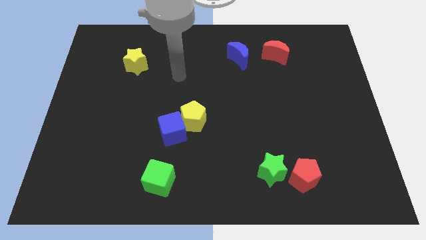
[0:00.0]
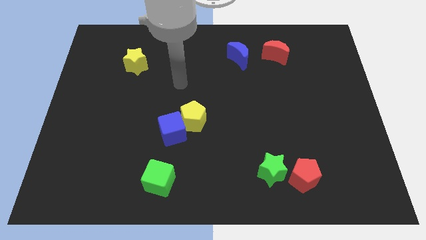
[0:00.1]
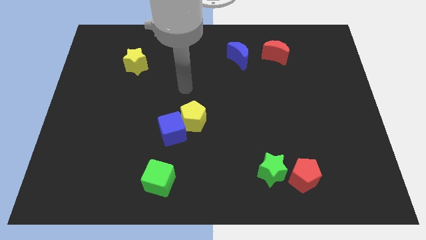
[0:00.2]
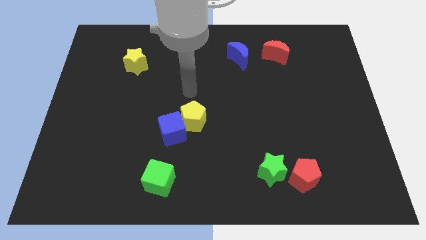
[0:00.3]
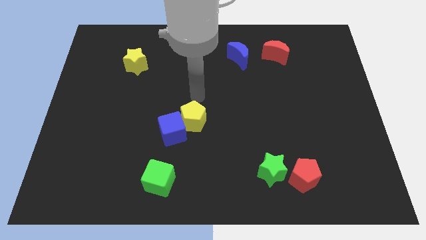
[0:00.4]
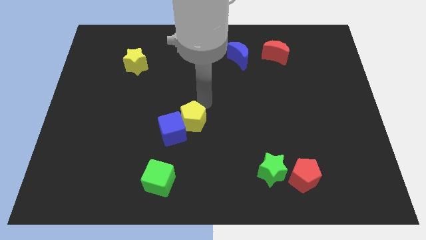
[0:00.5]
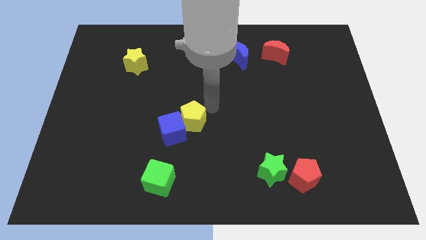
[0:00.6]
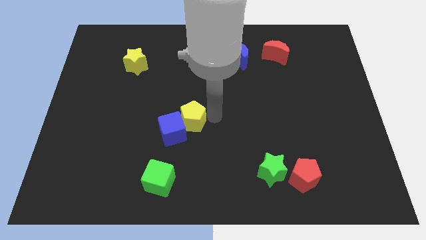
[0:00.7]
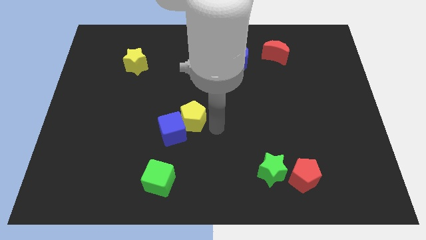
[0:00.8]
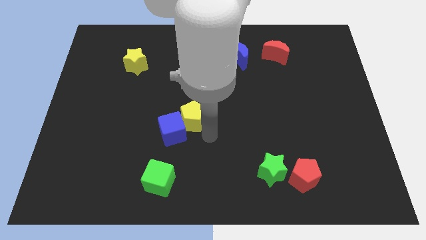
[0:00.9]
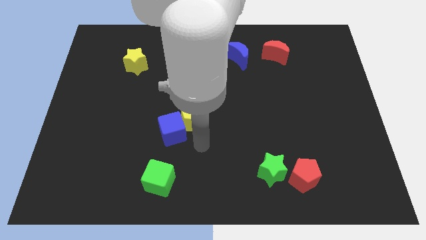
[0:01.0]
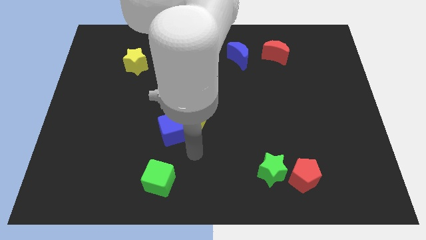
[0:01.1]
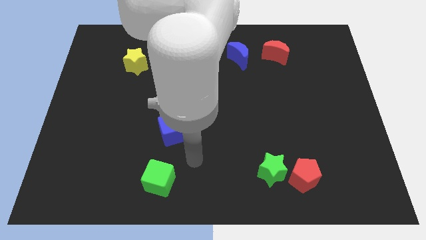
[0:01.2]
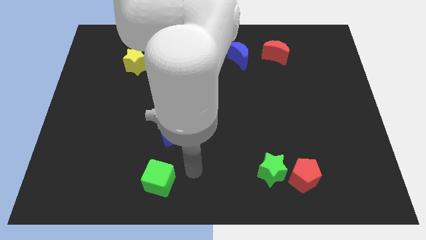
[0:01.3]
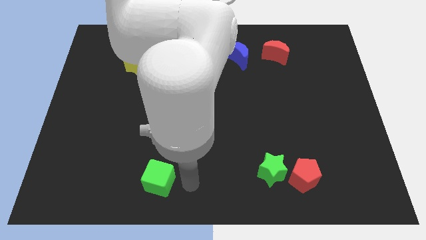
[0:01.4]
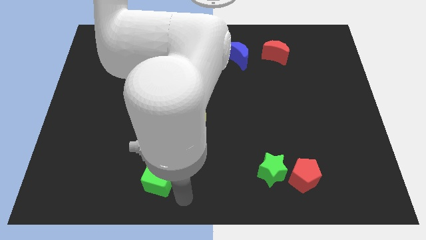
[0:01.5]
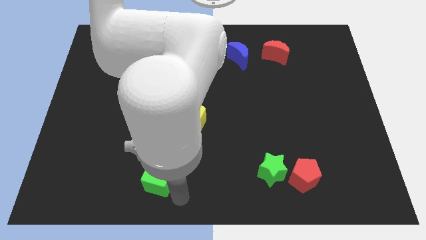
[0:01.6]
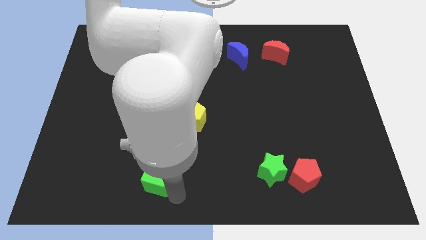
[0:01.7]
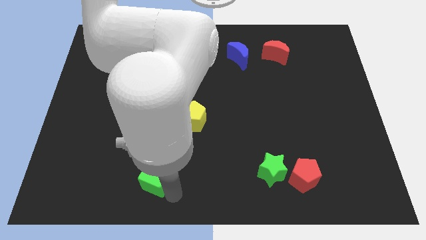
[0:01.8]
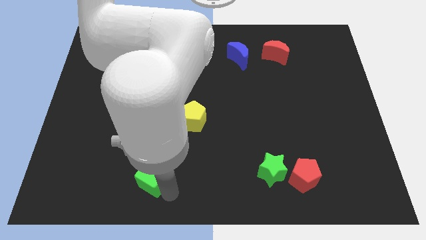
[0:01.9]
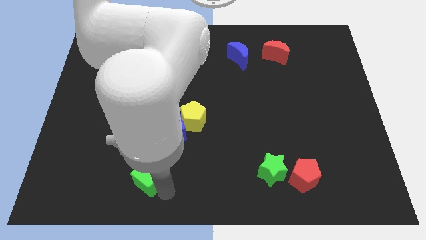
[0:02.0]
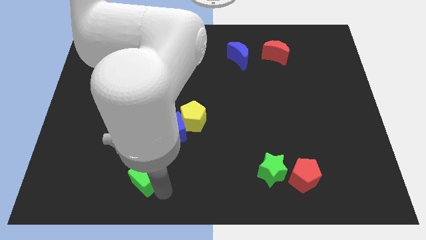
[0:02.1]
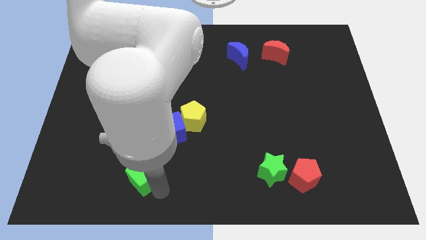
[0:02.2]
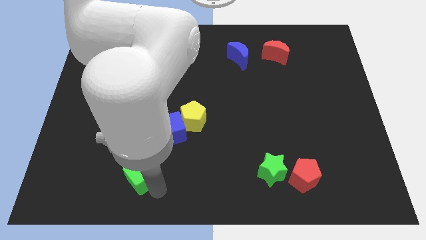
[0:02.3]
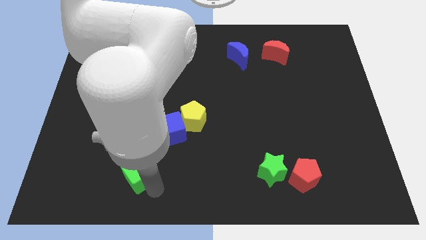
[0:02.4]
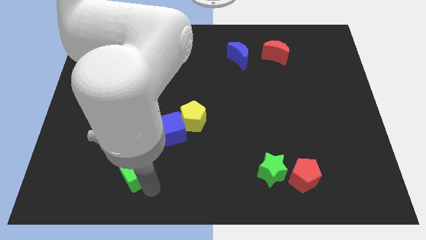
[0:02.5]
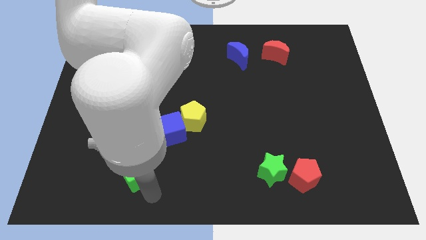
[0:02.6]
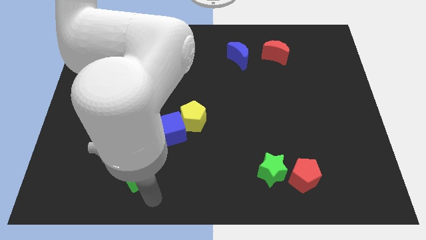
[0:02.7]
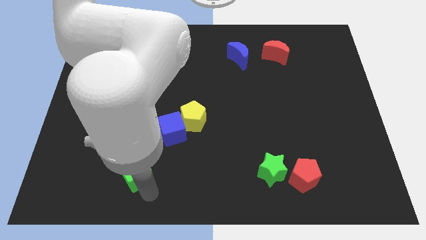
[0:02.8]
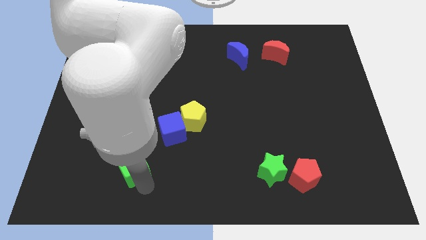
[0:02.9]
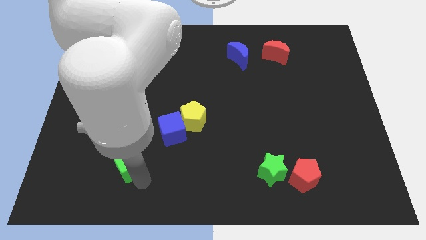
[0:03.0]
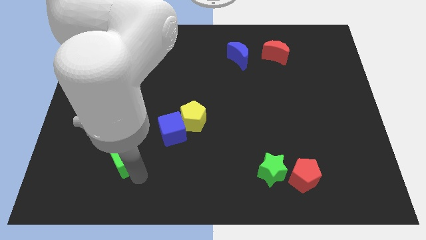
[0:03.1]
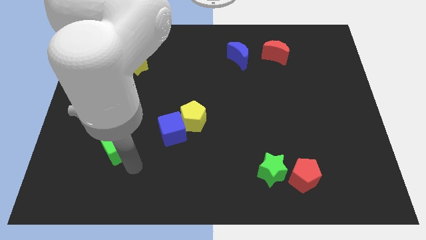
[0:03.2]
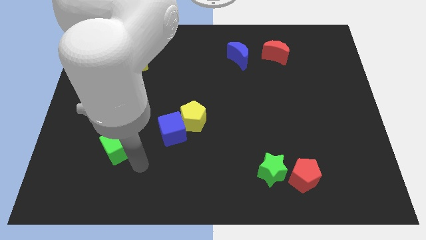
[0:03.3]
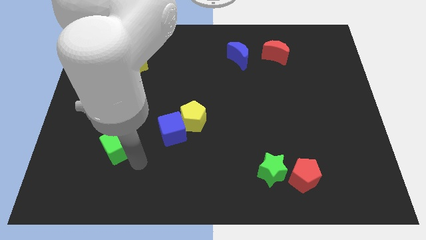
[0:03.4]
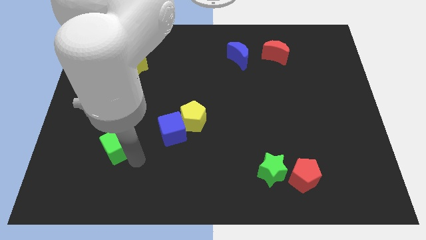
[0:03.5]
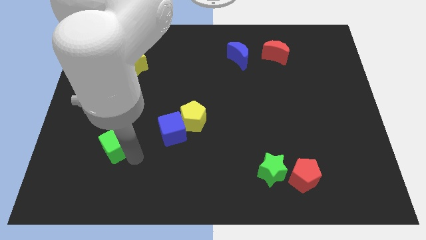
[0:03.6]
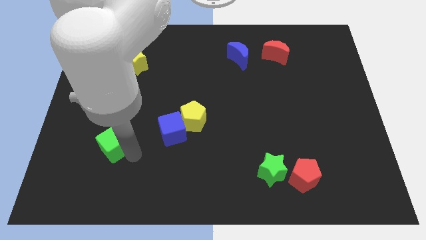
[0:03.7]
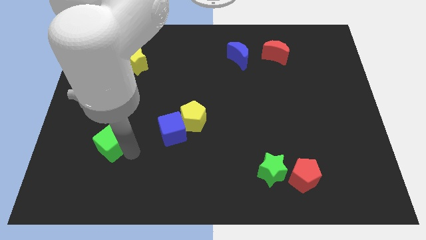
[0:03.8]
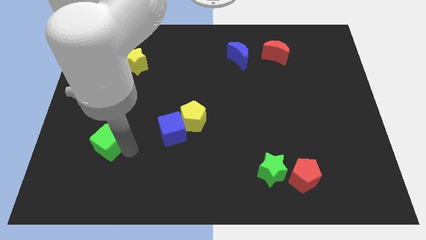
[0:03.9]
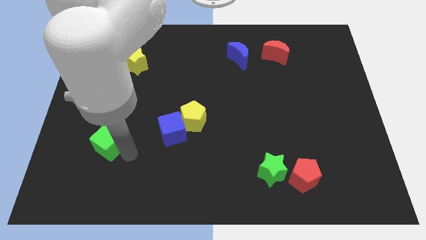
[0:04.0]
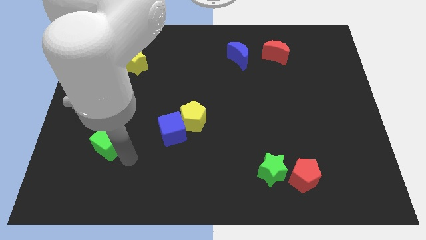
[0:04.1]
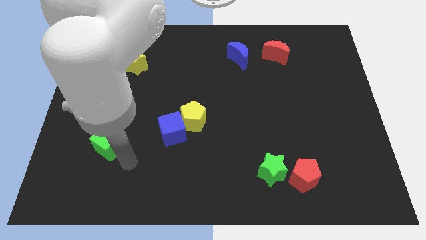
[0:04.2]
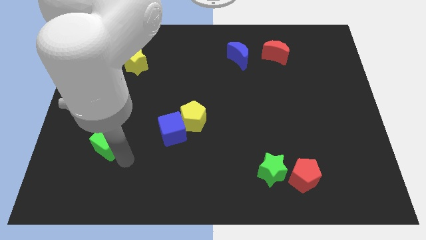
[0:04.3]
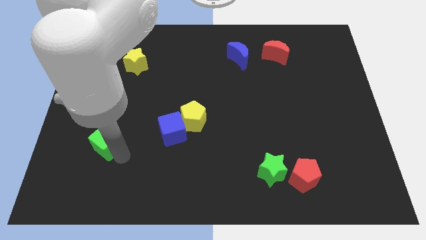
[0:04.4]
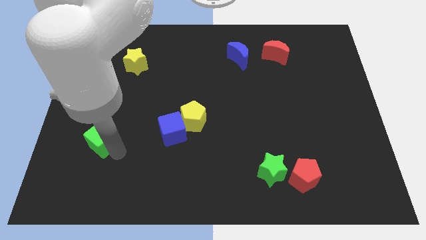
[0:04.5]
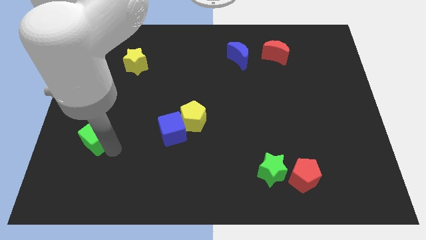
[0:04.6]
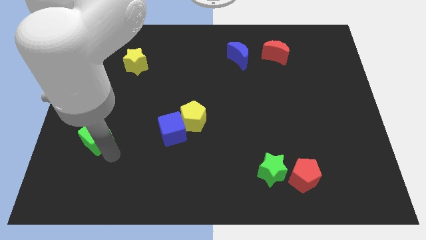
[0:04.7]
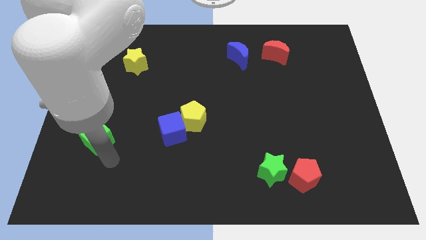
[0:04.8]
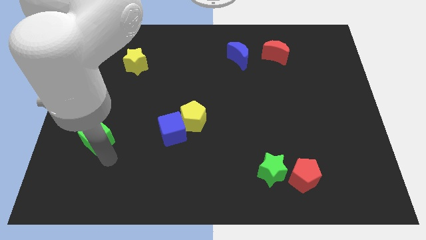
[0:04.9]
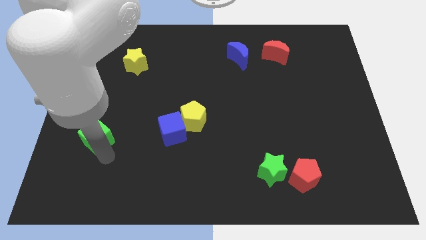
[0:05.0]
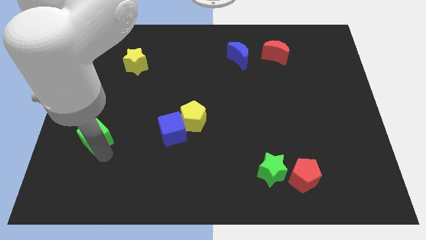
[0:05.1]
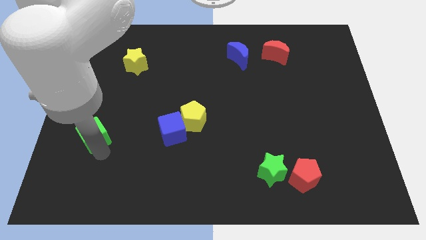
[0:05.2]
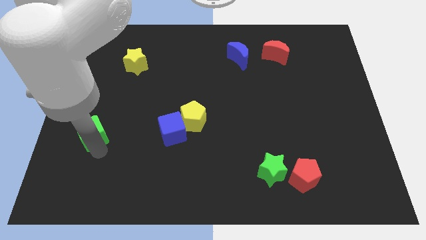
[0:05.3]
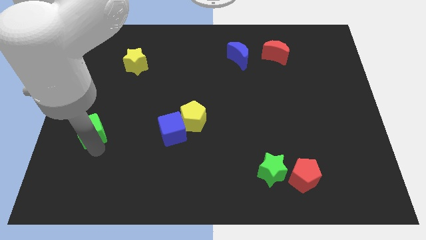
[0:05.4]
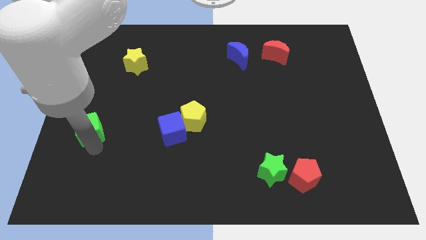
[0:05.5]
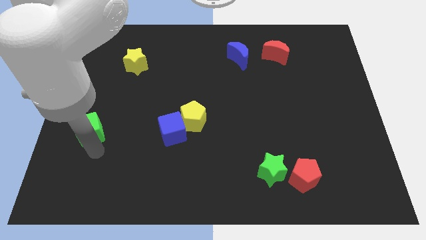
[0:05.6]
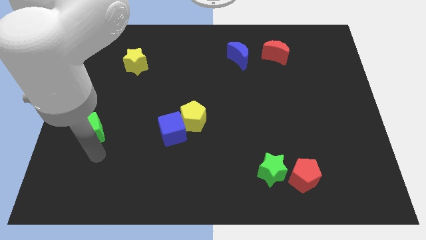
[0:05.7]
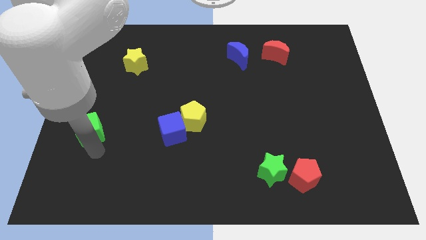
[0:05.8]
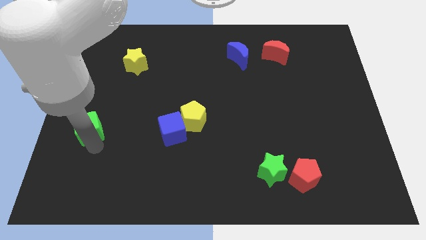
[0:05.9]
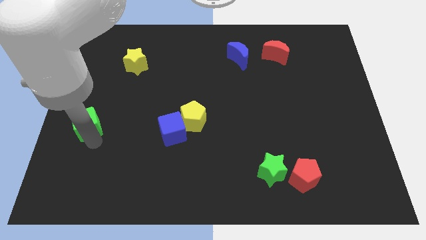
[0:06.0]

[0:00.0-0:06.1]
slide the green cube to the center left

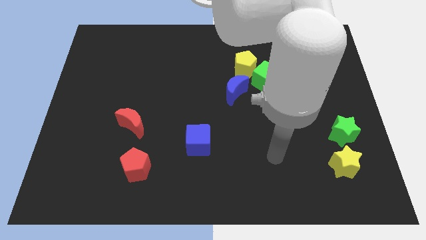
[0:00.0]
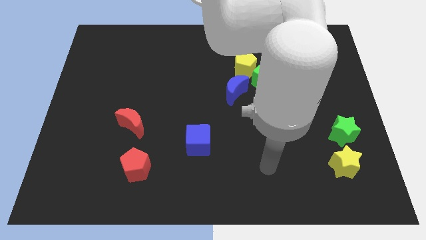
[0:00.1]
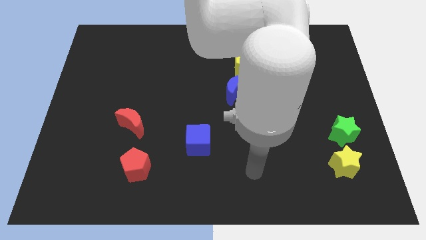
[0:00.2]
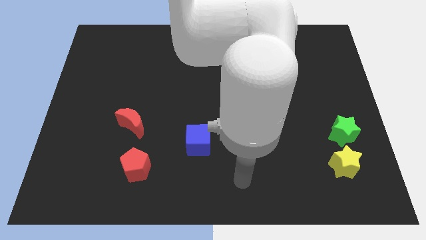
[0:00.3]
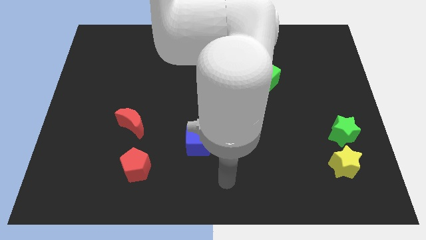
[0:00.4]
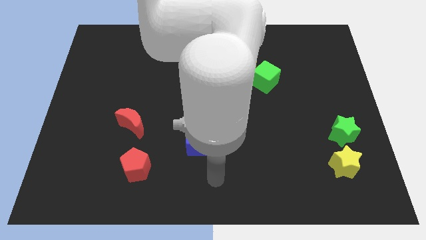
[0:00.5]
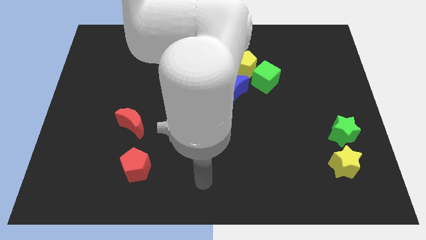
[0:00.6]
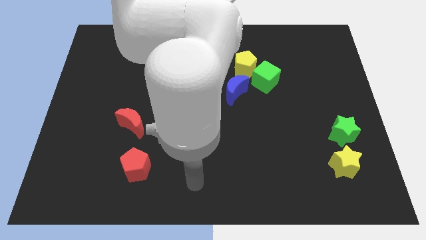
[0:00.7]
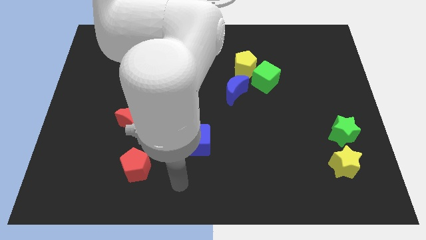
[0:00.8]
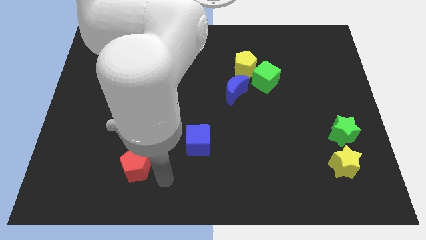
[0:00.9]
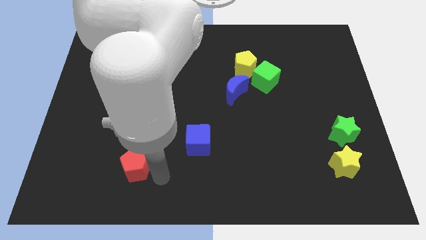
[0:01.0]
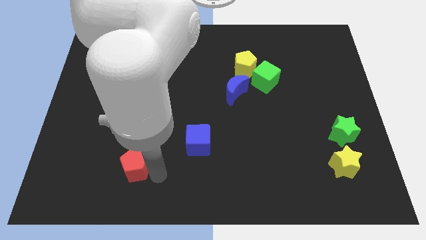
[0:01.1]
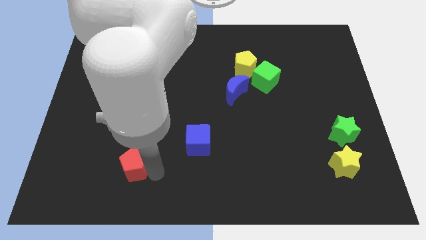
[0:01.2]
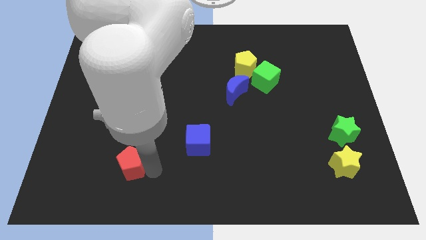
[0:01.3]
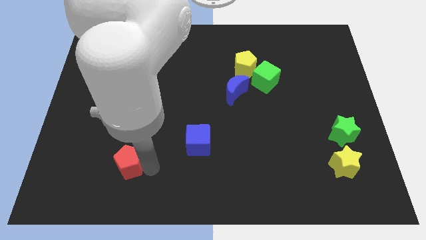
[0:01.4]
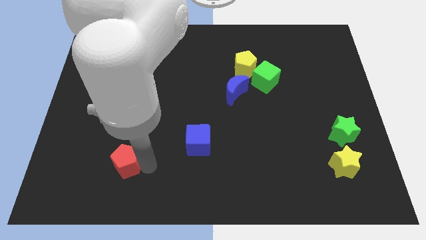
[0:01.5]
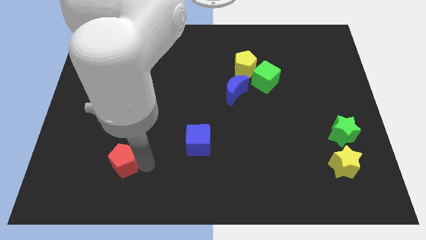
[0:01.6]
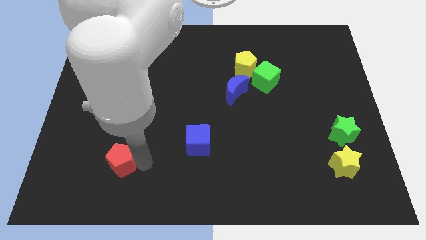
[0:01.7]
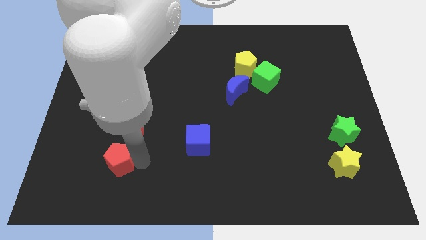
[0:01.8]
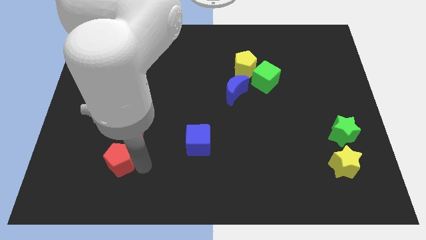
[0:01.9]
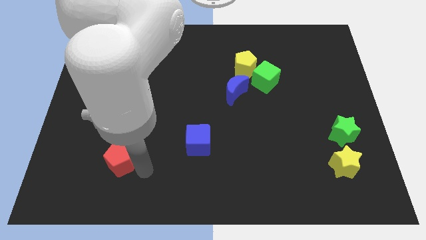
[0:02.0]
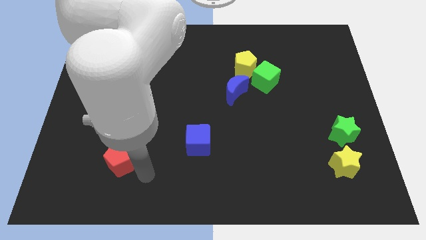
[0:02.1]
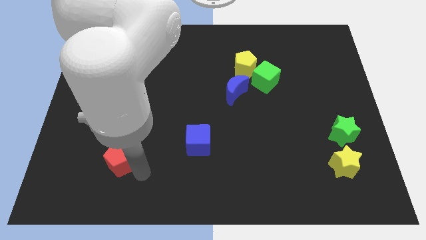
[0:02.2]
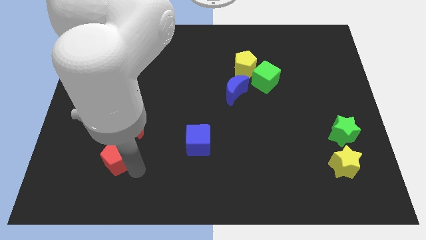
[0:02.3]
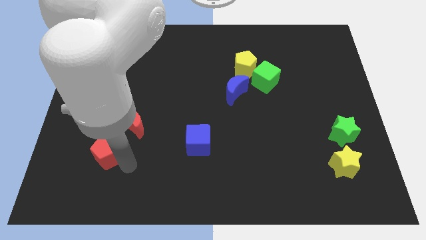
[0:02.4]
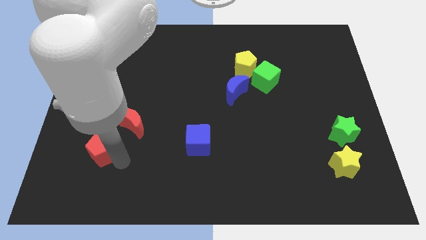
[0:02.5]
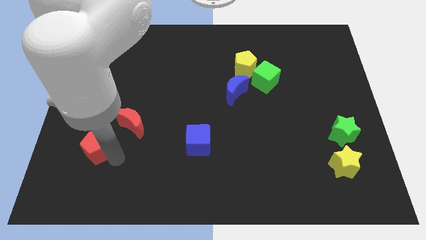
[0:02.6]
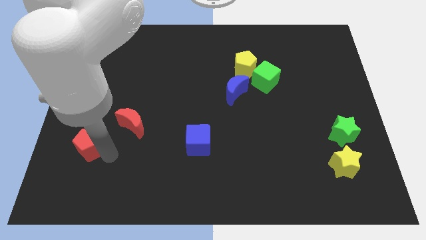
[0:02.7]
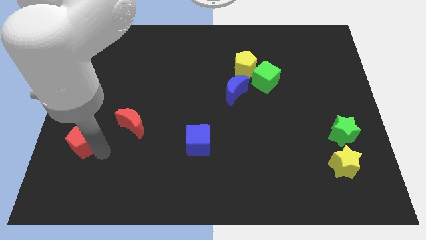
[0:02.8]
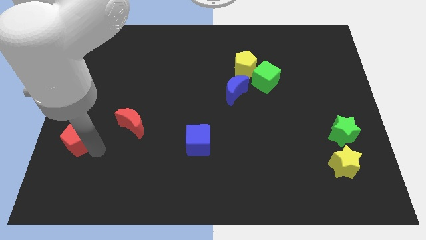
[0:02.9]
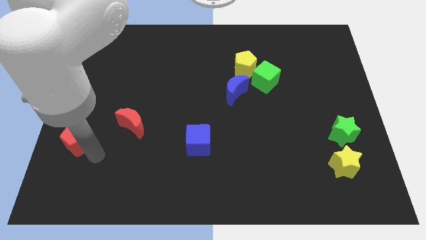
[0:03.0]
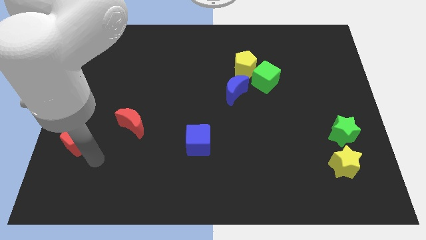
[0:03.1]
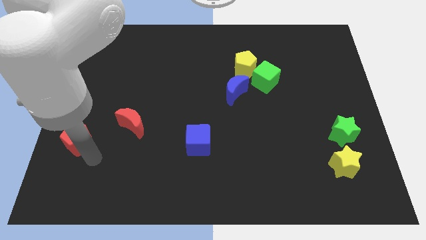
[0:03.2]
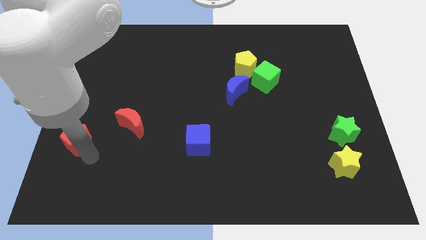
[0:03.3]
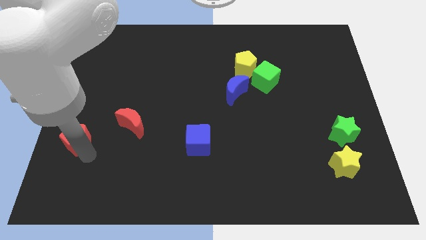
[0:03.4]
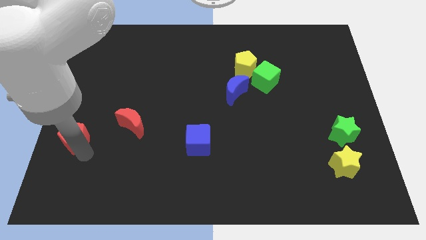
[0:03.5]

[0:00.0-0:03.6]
put the red pentagon to the center left
